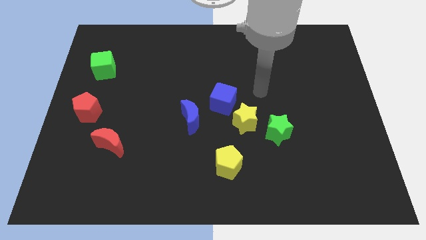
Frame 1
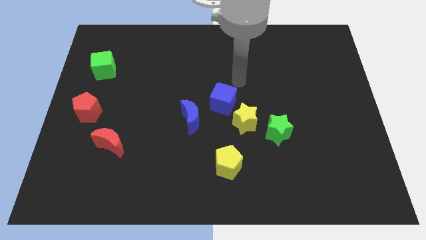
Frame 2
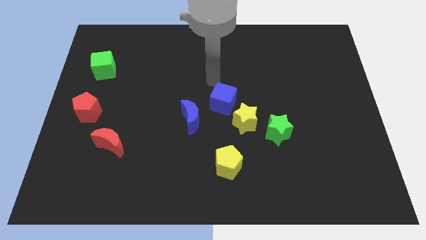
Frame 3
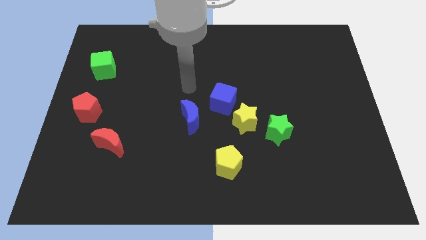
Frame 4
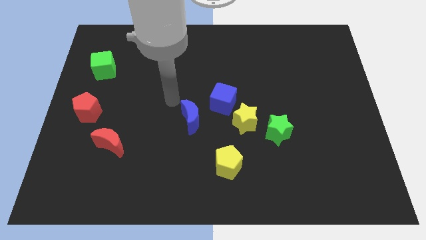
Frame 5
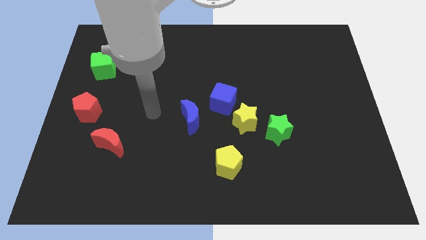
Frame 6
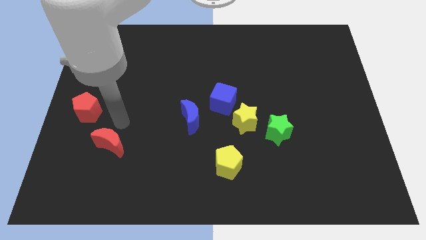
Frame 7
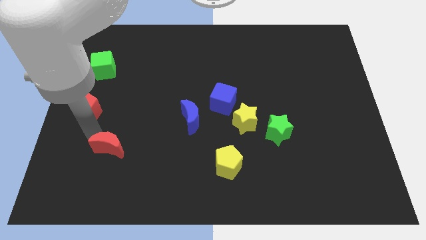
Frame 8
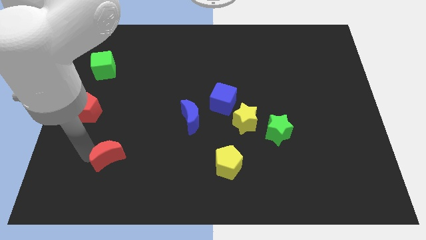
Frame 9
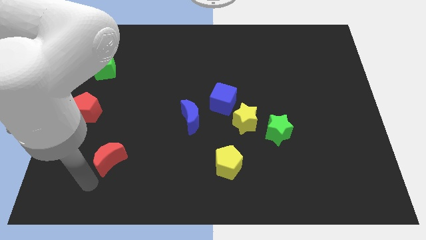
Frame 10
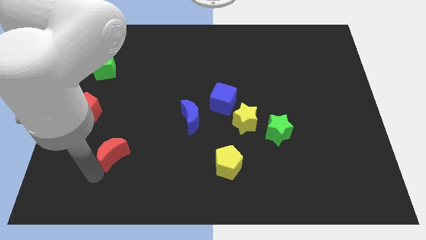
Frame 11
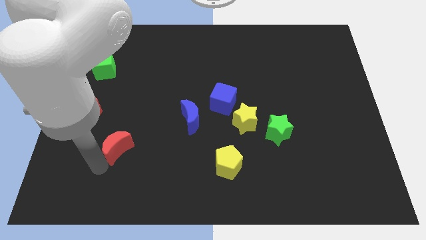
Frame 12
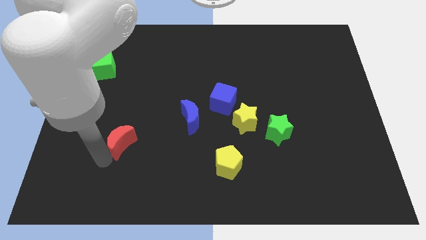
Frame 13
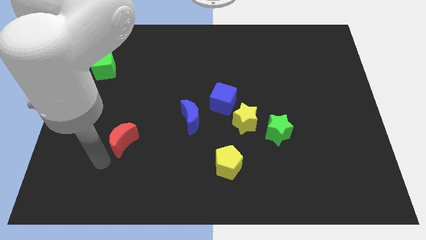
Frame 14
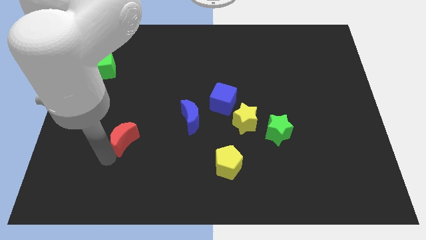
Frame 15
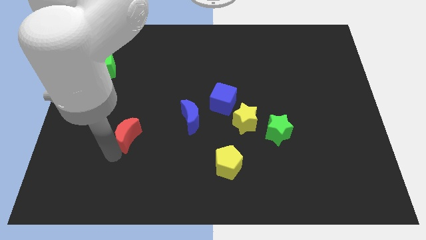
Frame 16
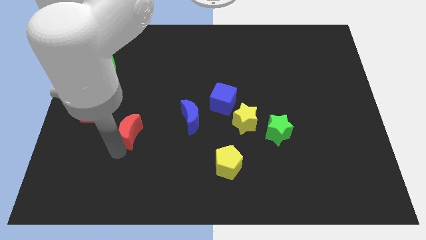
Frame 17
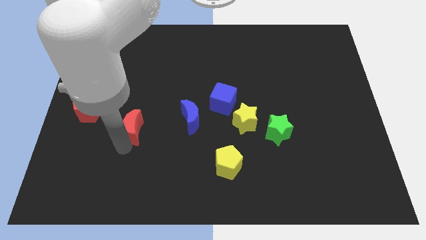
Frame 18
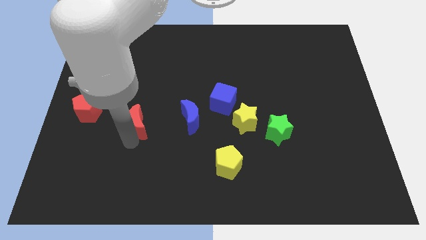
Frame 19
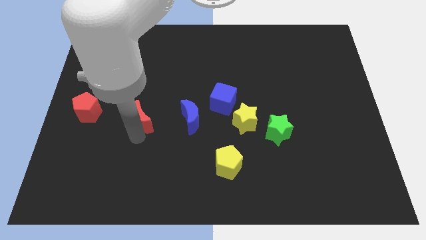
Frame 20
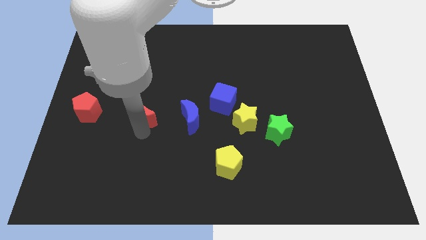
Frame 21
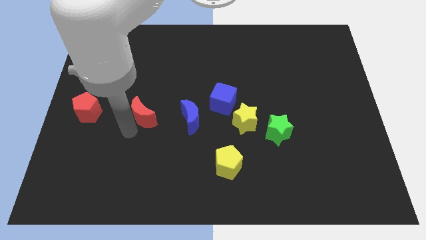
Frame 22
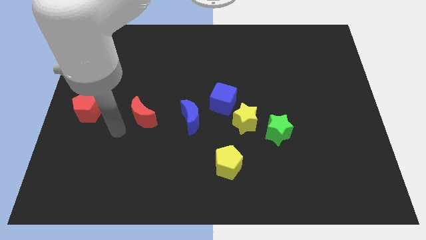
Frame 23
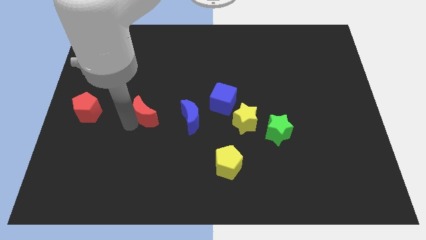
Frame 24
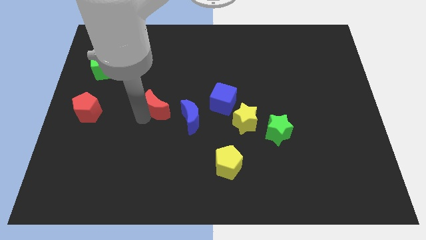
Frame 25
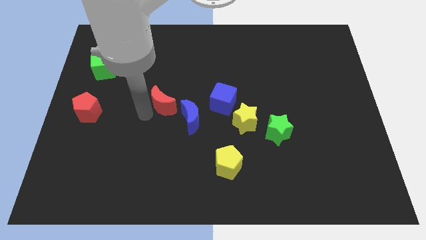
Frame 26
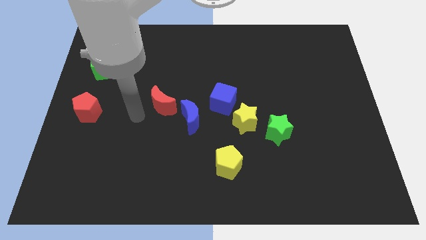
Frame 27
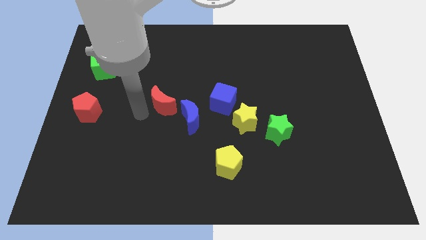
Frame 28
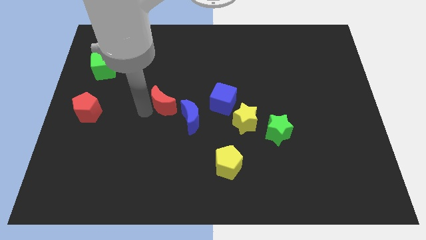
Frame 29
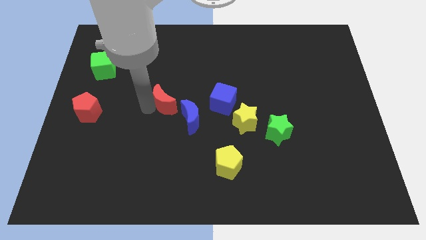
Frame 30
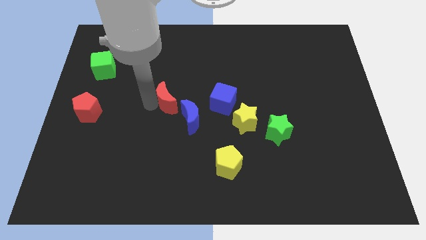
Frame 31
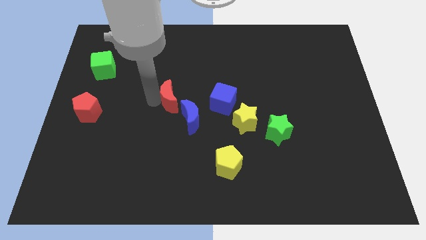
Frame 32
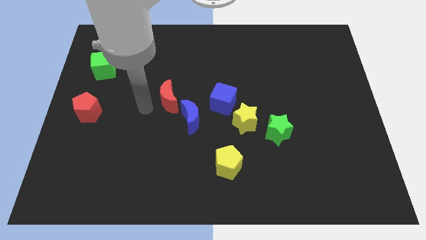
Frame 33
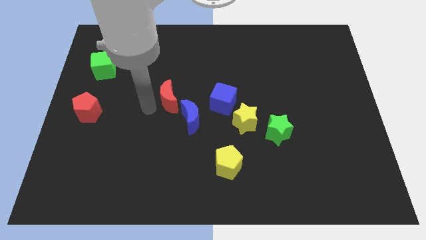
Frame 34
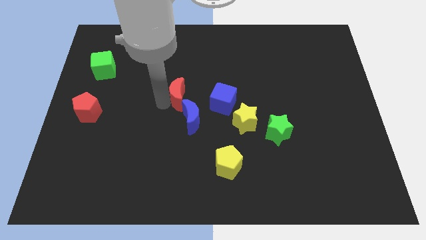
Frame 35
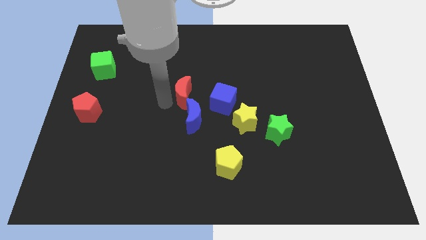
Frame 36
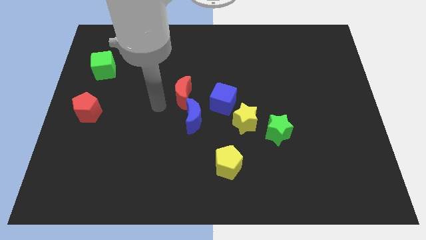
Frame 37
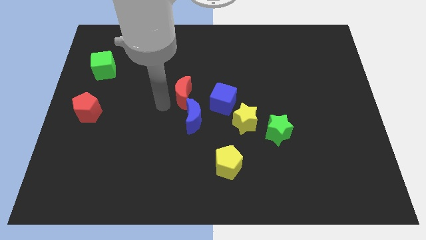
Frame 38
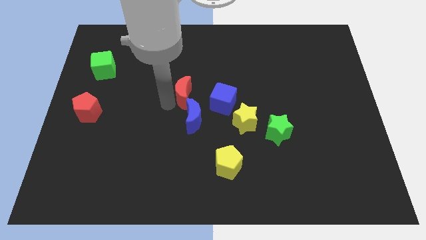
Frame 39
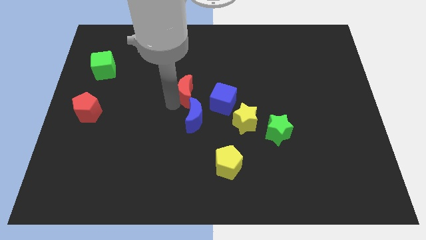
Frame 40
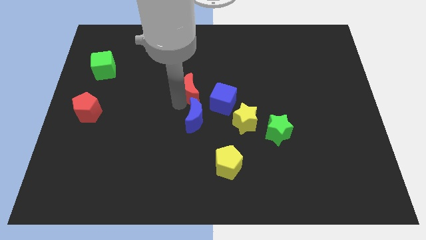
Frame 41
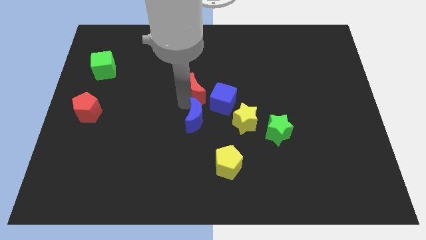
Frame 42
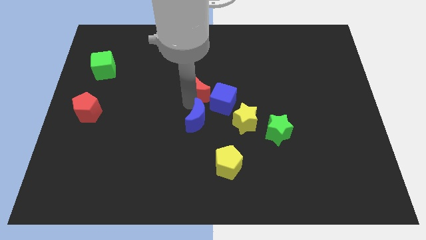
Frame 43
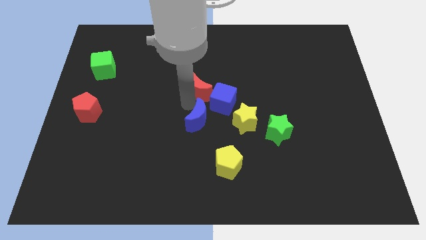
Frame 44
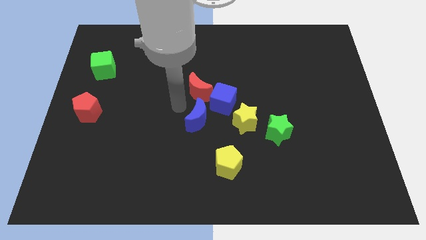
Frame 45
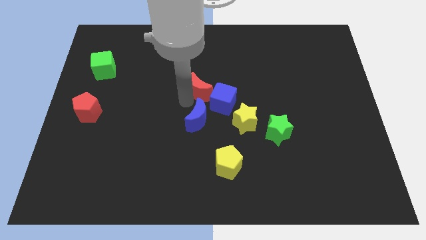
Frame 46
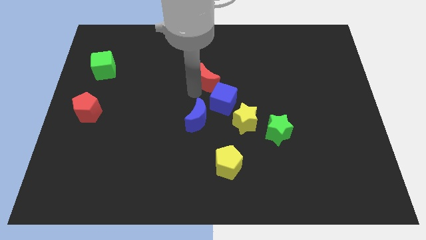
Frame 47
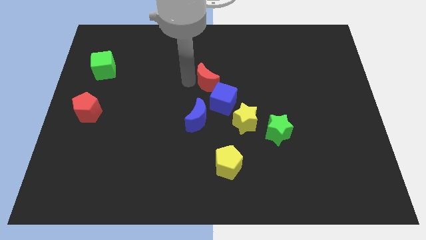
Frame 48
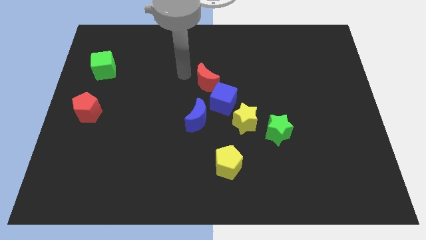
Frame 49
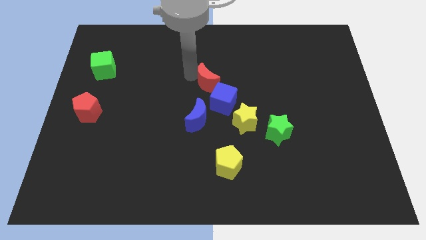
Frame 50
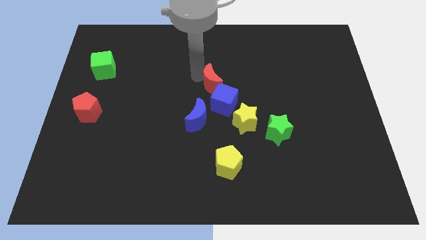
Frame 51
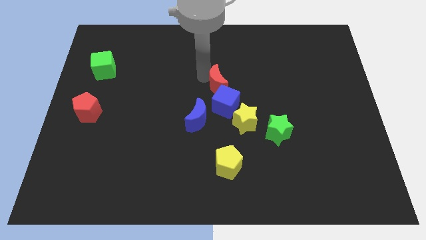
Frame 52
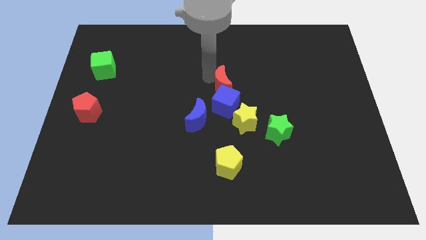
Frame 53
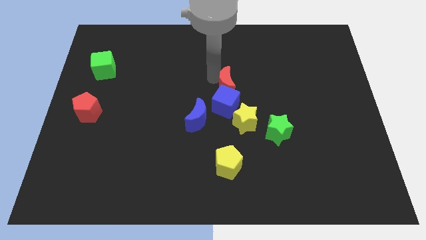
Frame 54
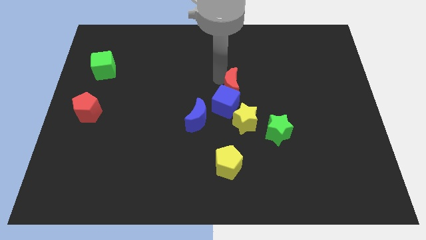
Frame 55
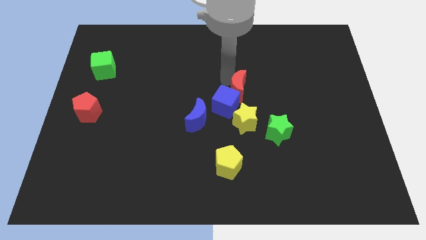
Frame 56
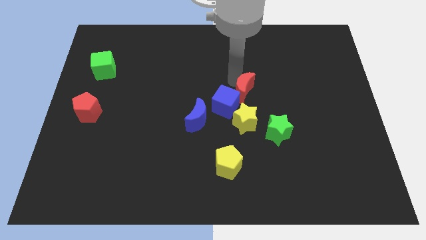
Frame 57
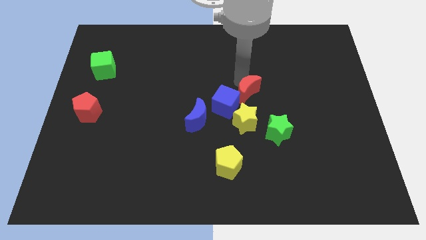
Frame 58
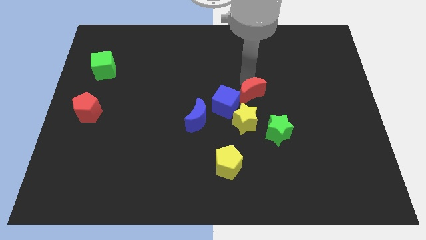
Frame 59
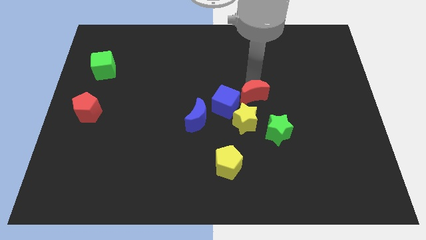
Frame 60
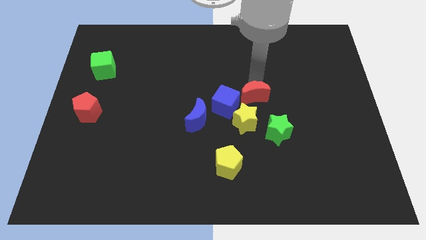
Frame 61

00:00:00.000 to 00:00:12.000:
slide the red moon to the top left of the green star

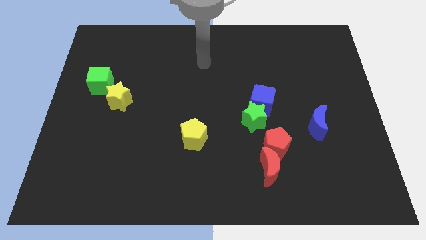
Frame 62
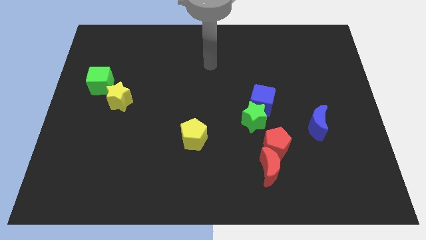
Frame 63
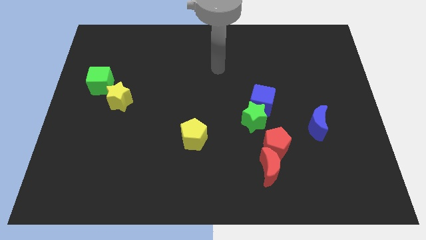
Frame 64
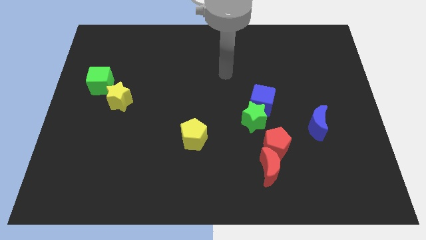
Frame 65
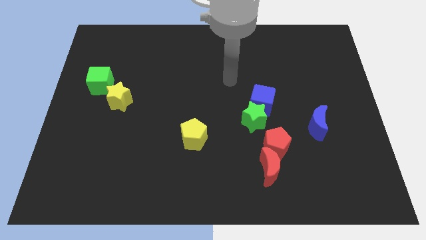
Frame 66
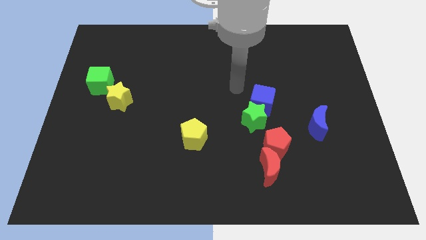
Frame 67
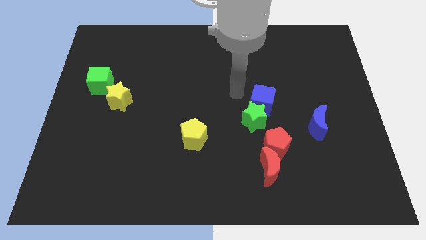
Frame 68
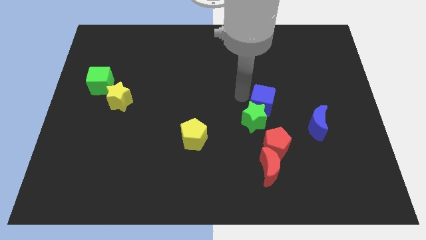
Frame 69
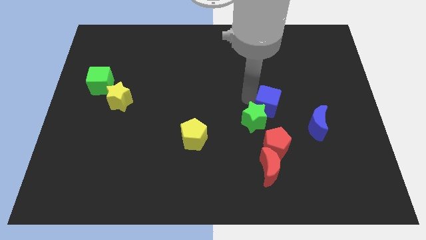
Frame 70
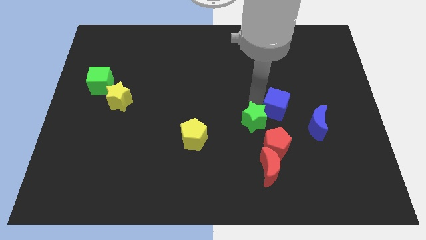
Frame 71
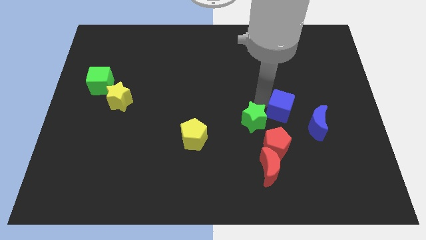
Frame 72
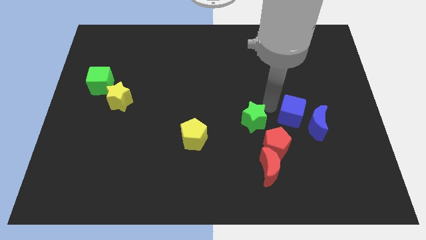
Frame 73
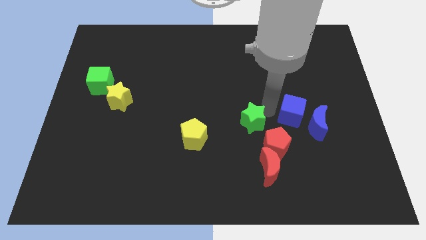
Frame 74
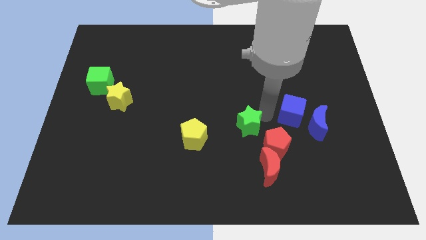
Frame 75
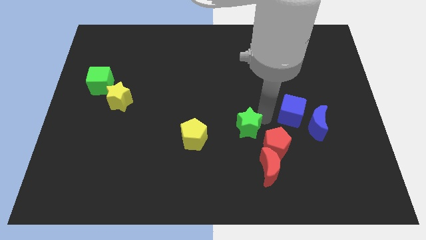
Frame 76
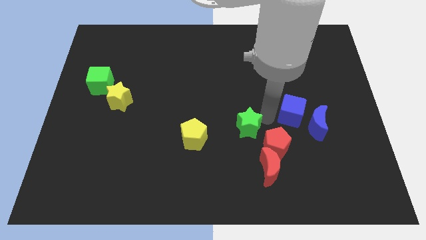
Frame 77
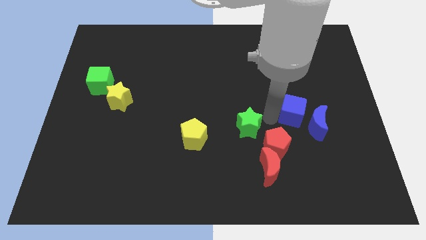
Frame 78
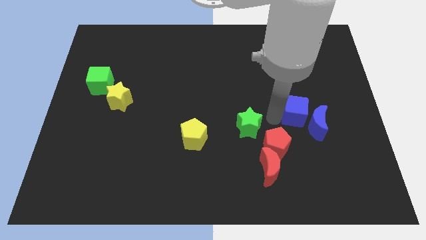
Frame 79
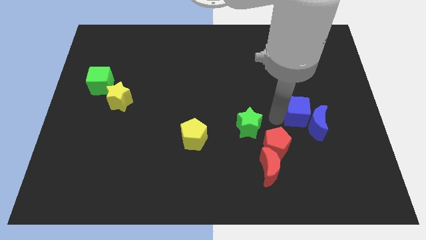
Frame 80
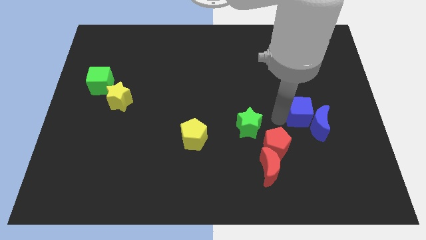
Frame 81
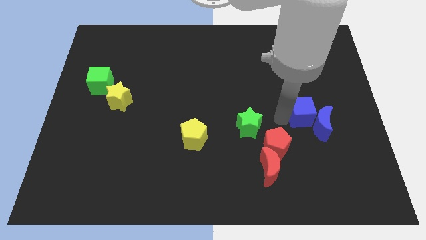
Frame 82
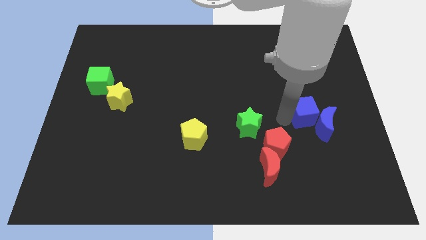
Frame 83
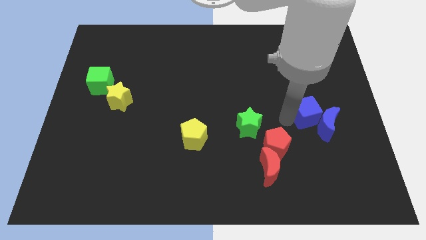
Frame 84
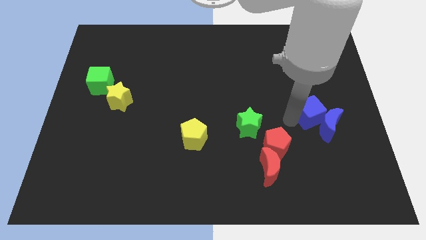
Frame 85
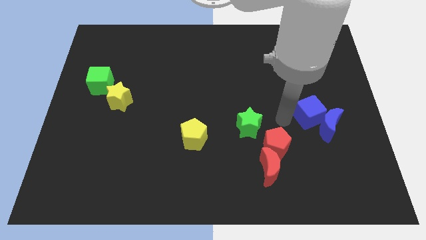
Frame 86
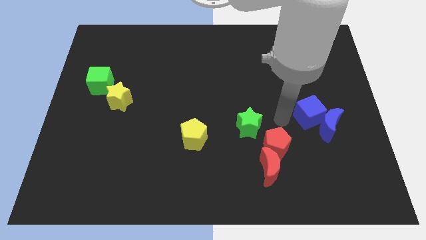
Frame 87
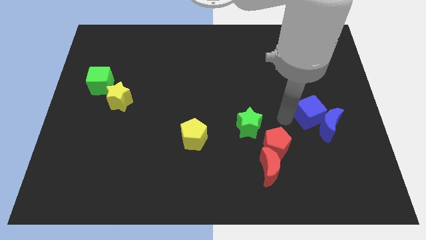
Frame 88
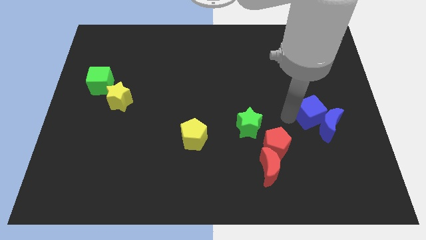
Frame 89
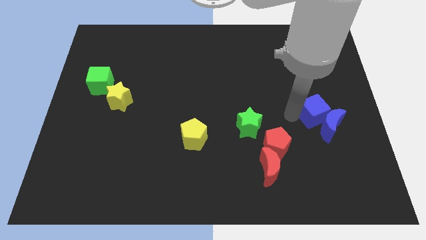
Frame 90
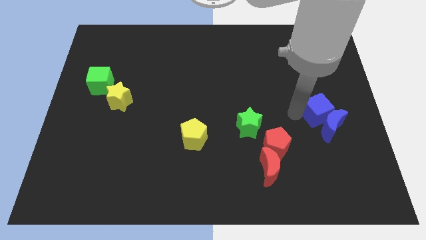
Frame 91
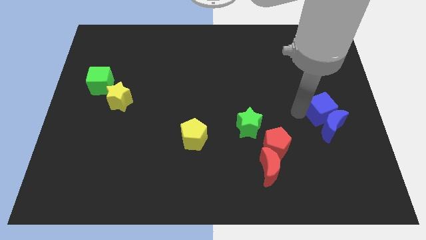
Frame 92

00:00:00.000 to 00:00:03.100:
put the blue cube to the top right of the blue moon
